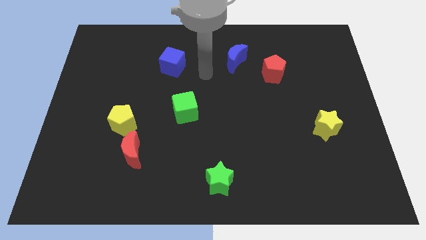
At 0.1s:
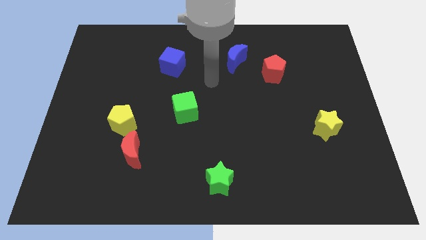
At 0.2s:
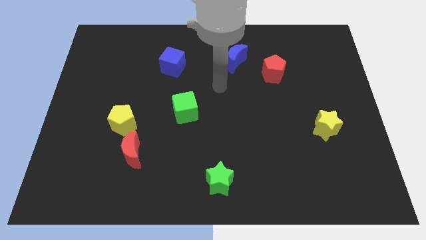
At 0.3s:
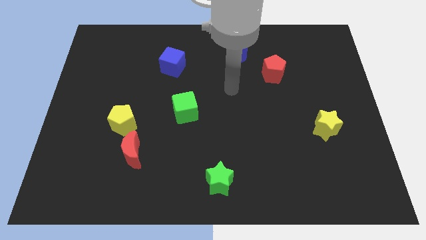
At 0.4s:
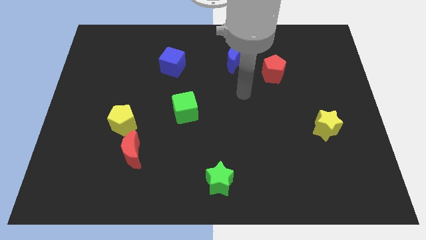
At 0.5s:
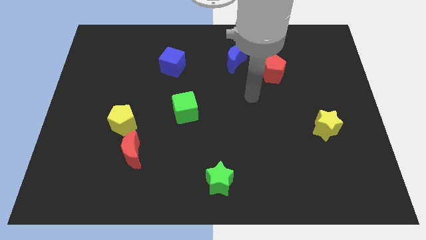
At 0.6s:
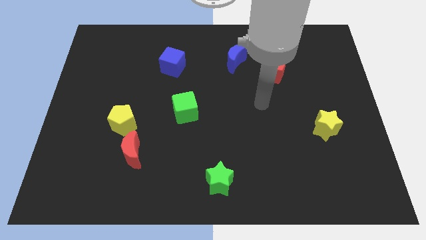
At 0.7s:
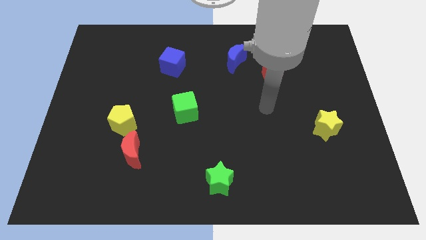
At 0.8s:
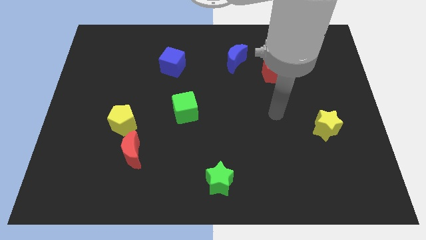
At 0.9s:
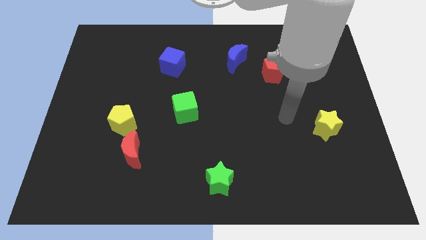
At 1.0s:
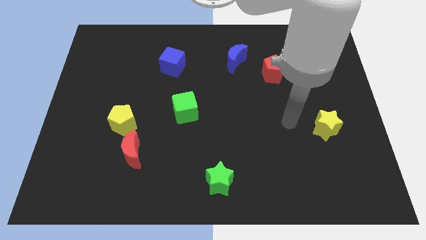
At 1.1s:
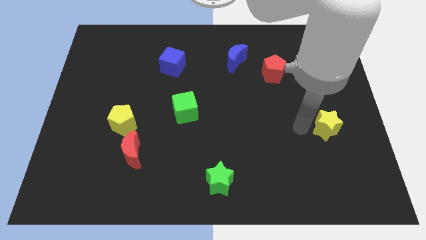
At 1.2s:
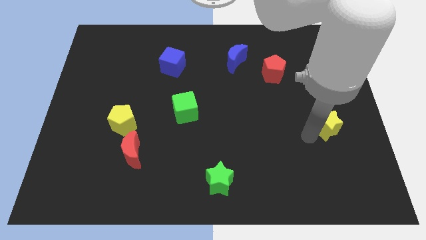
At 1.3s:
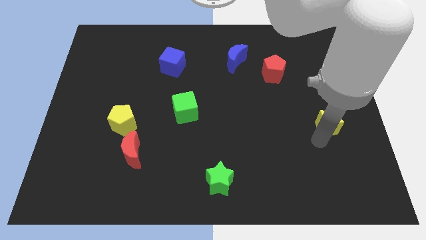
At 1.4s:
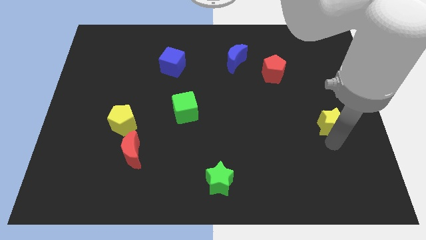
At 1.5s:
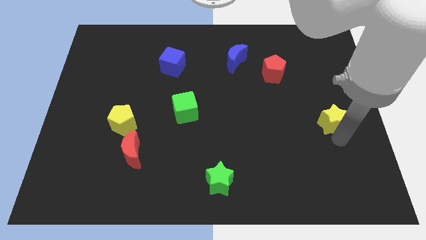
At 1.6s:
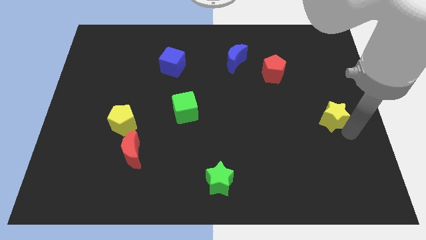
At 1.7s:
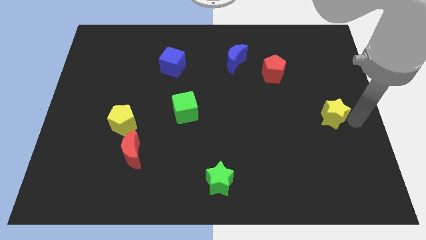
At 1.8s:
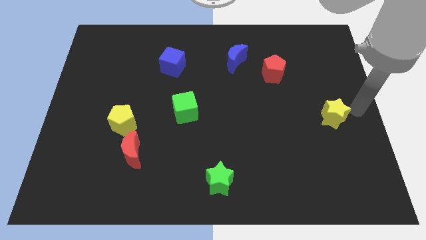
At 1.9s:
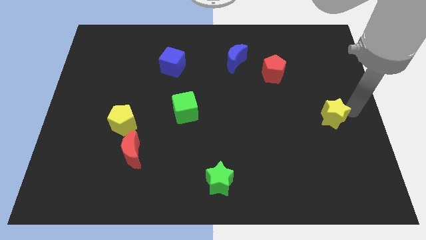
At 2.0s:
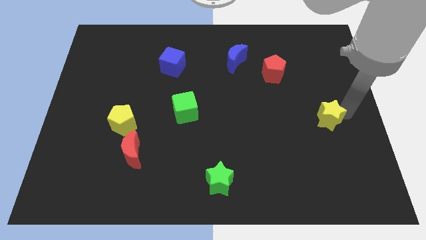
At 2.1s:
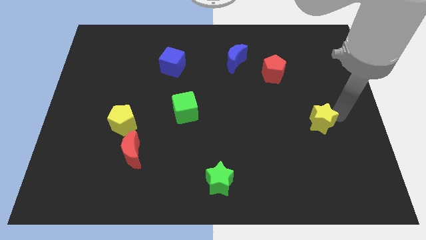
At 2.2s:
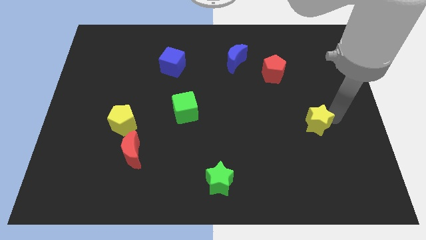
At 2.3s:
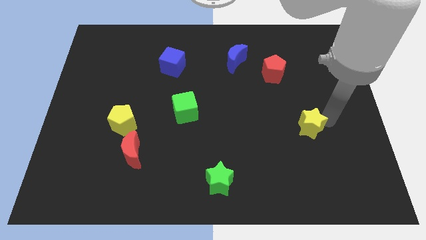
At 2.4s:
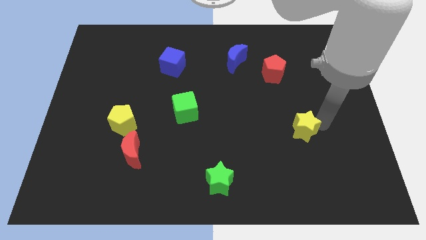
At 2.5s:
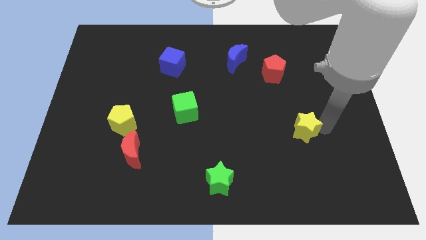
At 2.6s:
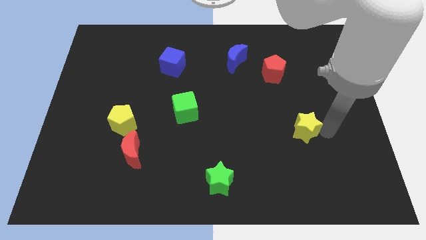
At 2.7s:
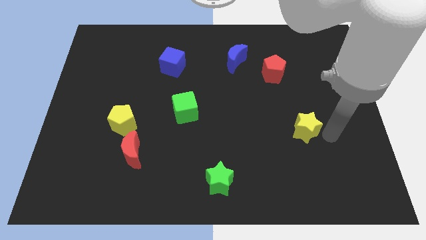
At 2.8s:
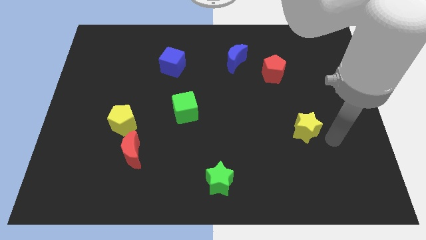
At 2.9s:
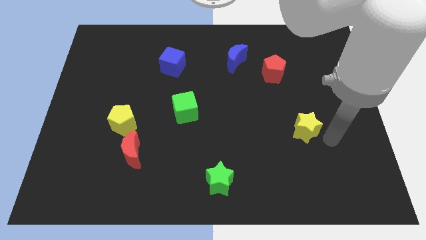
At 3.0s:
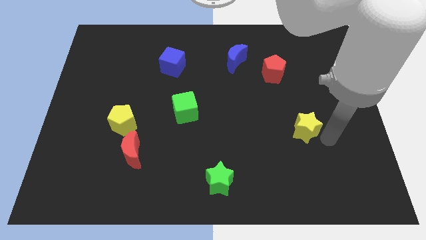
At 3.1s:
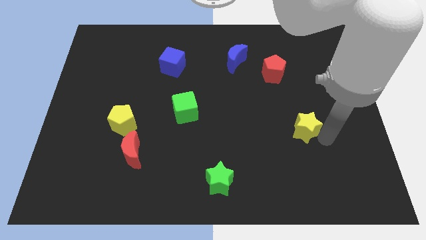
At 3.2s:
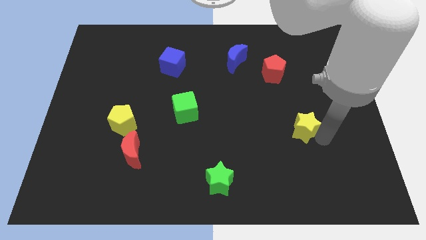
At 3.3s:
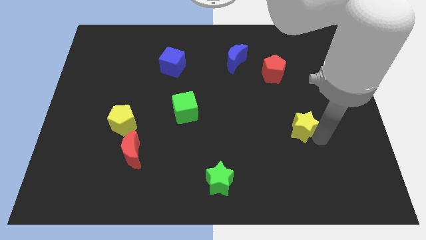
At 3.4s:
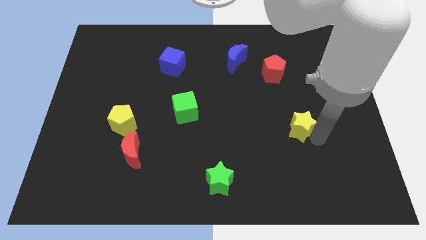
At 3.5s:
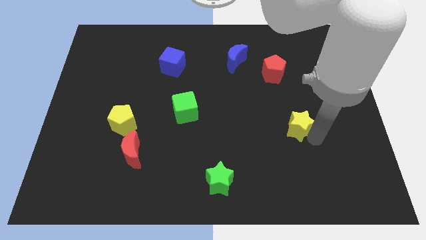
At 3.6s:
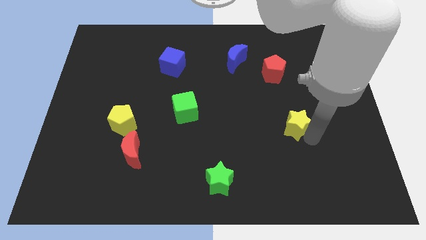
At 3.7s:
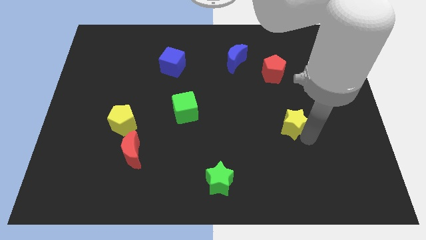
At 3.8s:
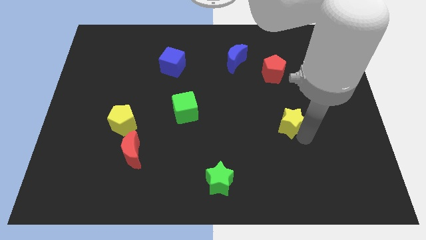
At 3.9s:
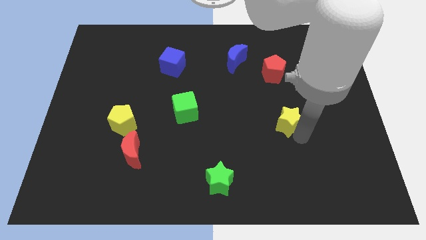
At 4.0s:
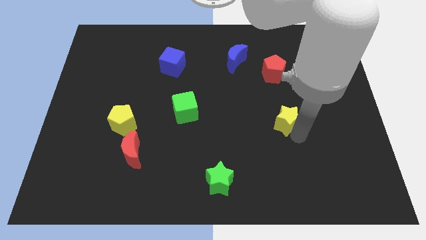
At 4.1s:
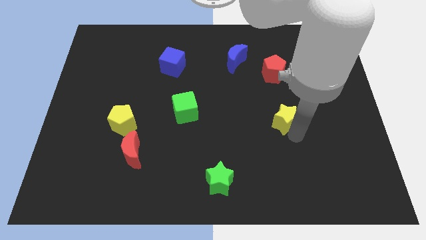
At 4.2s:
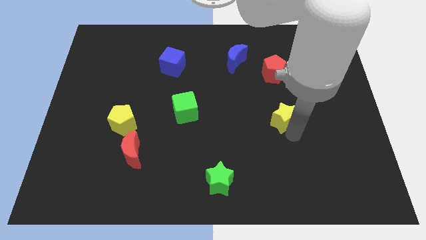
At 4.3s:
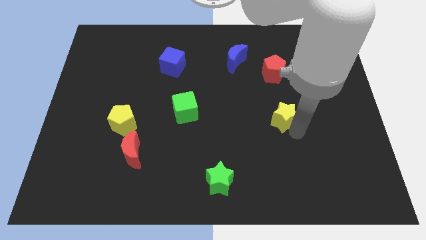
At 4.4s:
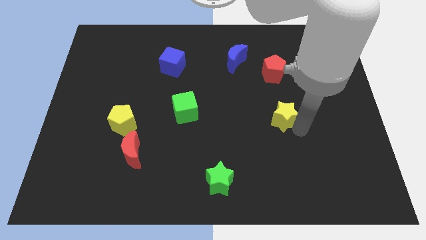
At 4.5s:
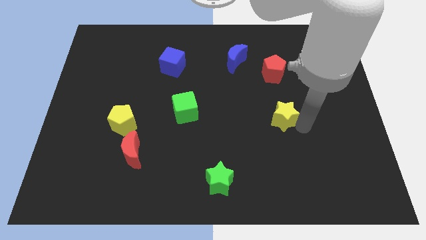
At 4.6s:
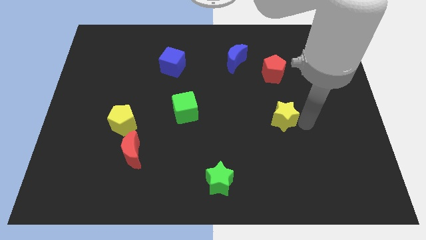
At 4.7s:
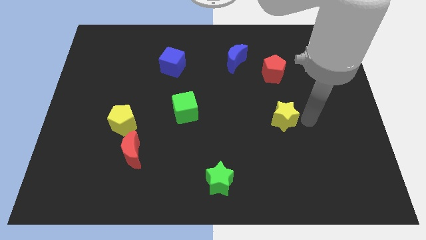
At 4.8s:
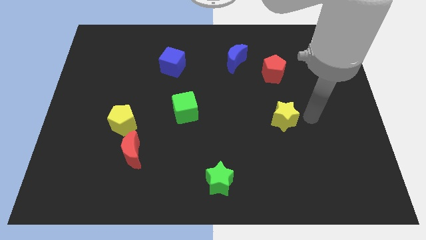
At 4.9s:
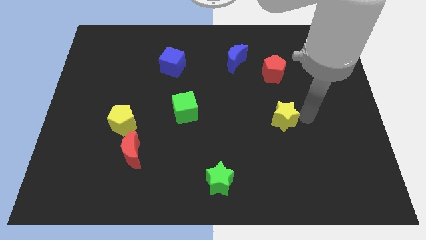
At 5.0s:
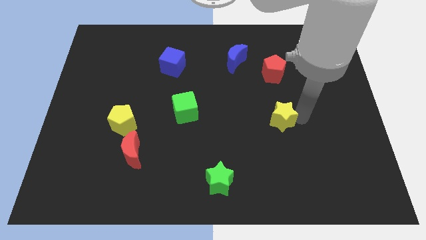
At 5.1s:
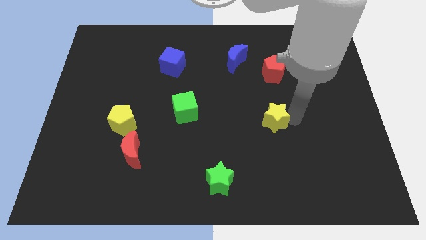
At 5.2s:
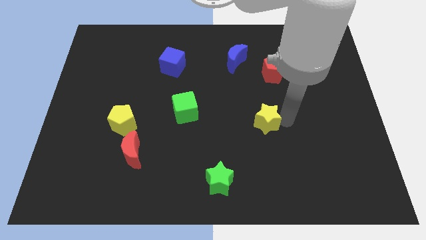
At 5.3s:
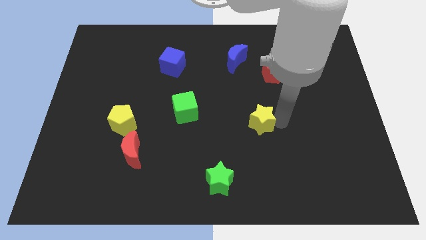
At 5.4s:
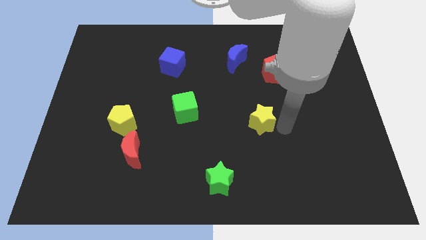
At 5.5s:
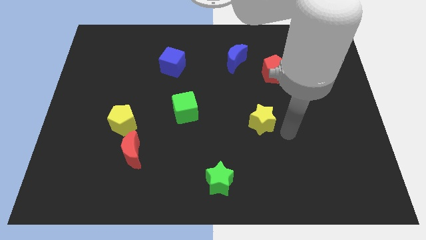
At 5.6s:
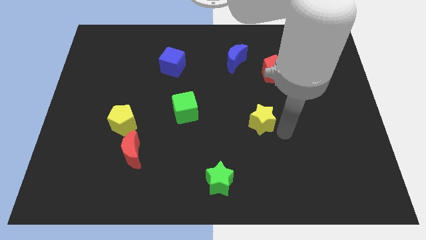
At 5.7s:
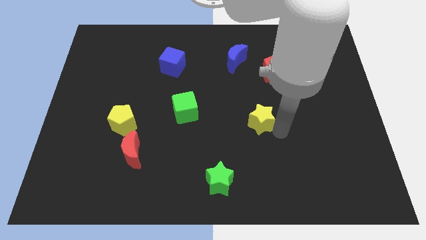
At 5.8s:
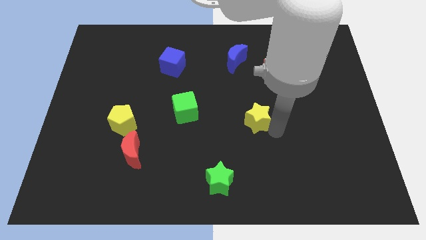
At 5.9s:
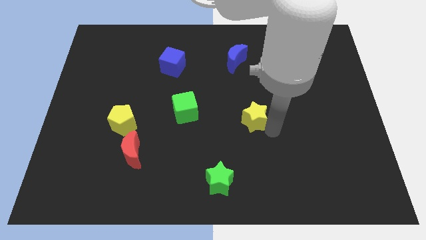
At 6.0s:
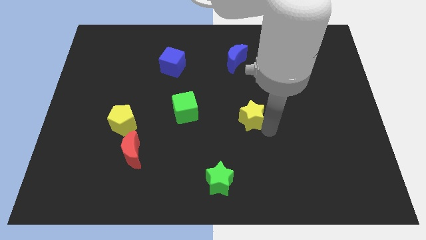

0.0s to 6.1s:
slide the yellow star right of the green cube

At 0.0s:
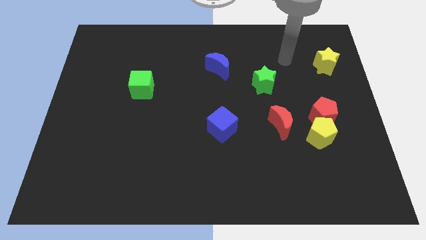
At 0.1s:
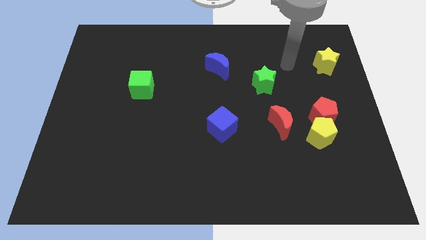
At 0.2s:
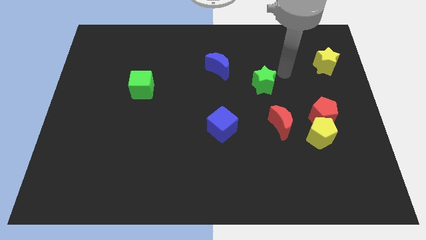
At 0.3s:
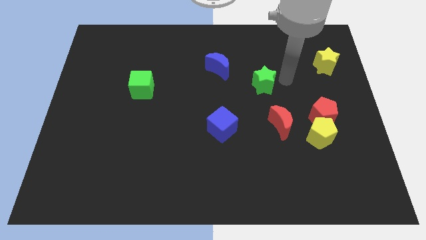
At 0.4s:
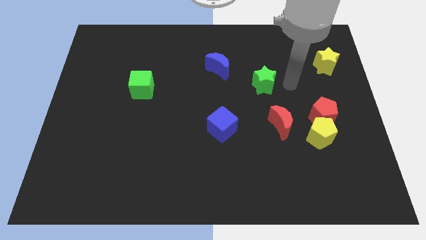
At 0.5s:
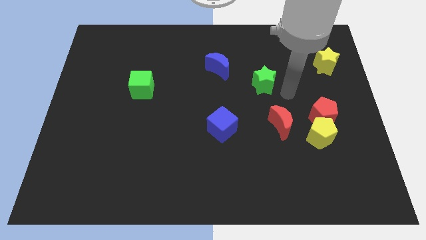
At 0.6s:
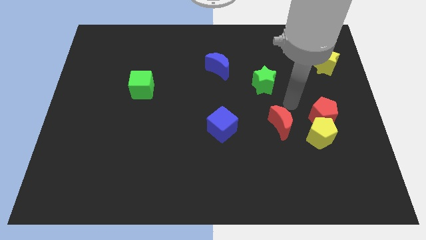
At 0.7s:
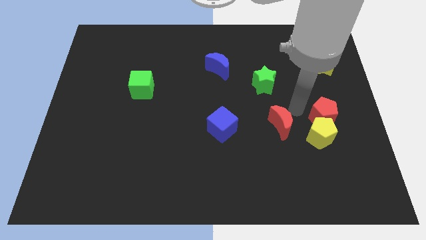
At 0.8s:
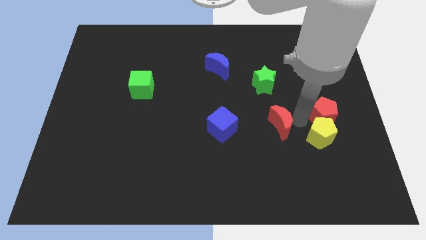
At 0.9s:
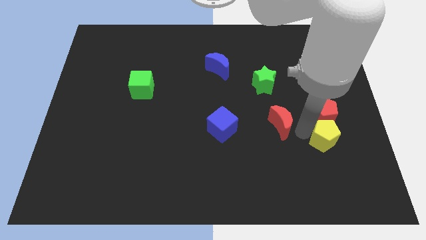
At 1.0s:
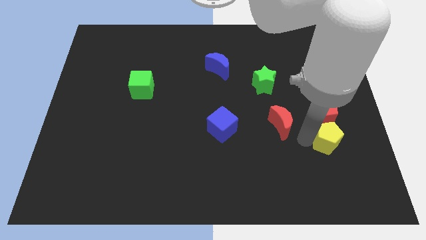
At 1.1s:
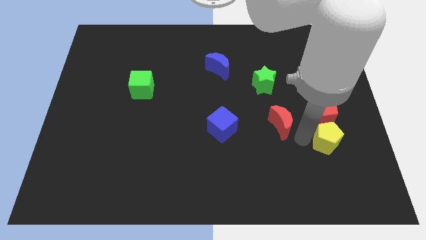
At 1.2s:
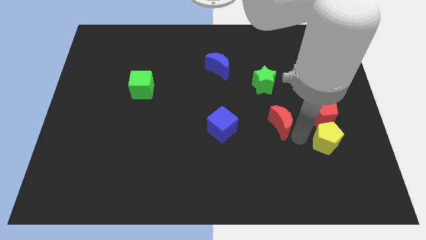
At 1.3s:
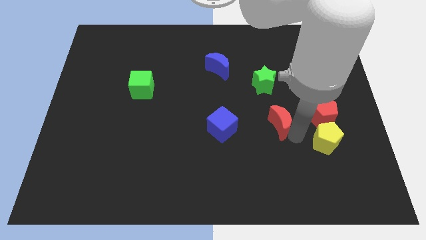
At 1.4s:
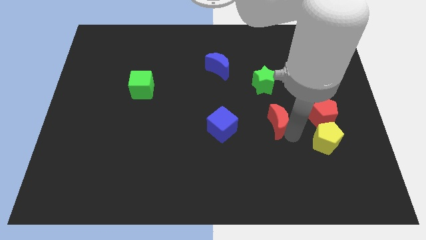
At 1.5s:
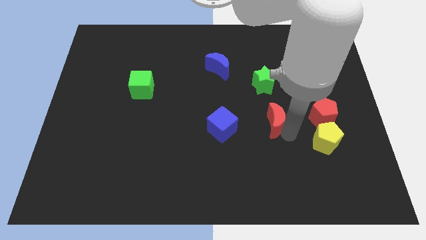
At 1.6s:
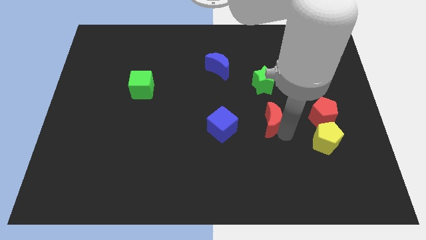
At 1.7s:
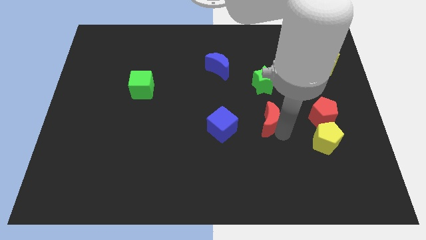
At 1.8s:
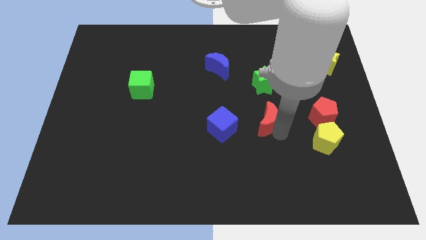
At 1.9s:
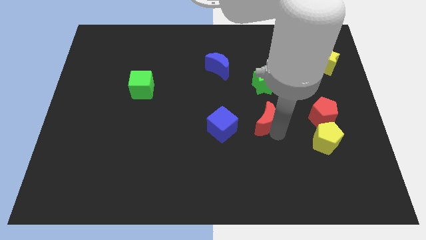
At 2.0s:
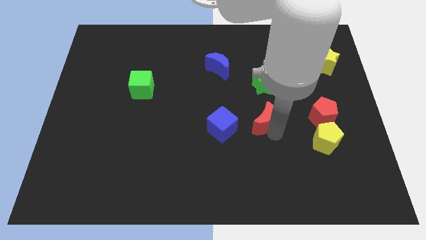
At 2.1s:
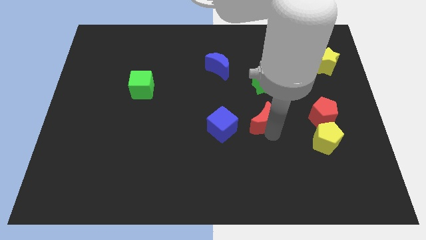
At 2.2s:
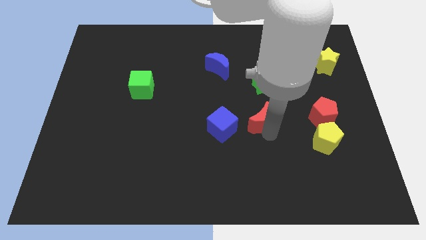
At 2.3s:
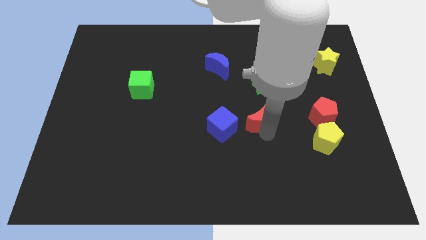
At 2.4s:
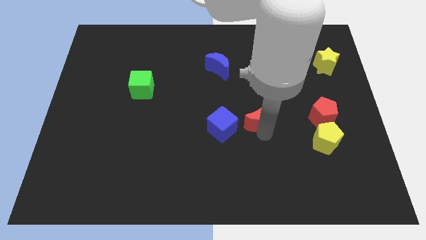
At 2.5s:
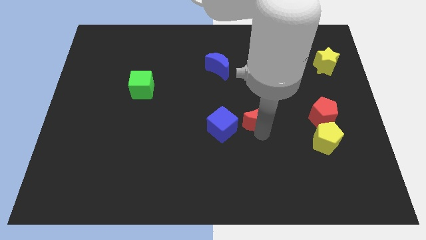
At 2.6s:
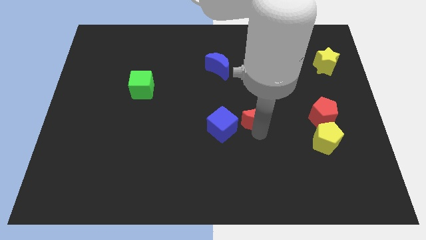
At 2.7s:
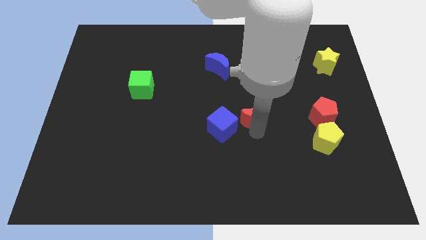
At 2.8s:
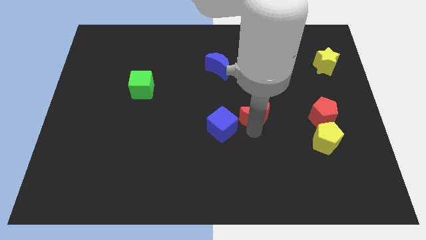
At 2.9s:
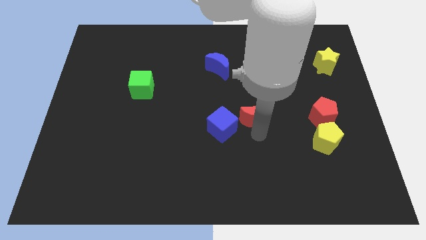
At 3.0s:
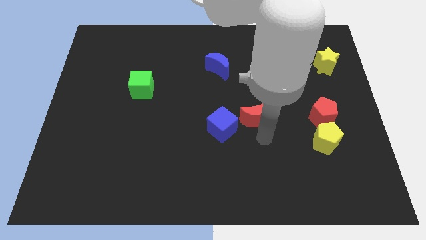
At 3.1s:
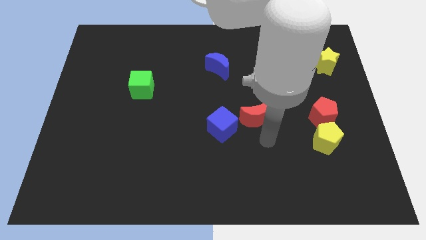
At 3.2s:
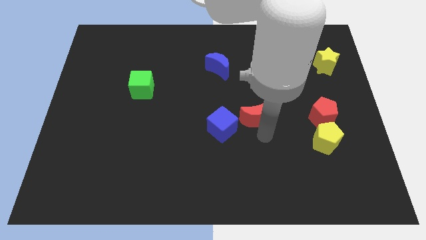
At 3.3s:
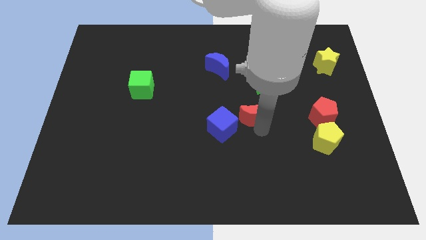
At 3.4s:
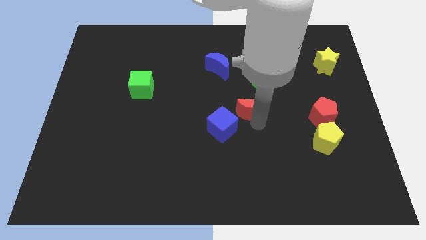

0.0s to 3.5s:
move the red moon to the bottom left of the green star
